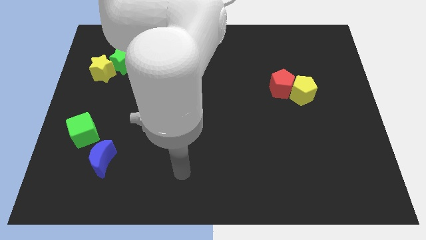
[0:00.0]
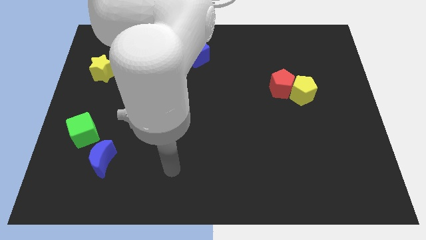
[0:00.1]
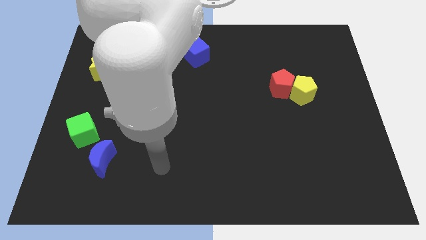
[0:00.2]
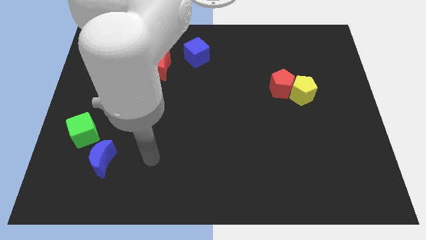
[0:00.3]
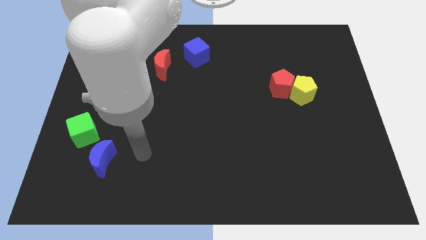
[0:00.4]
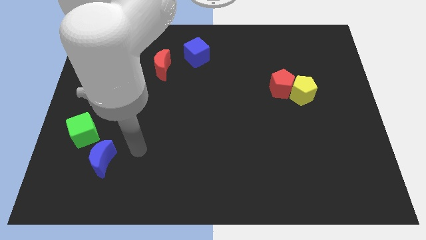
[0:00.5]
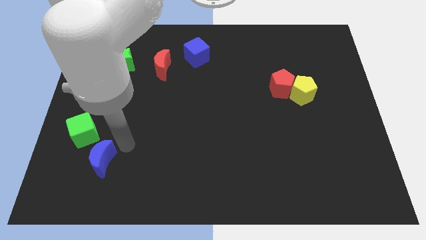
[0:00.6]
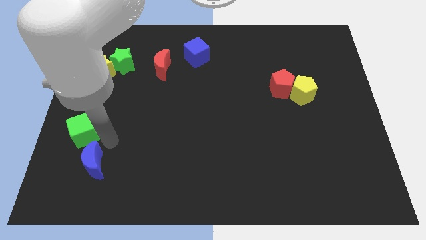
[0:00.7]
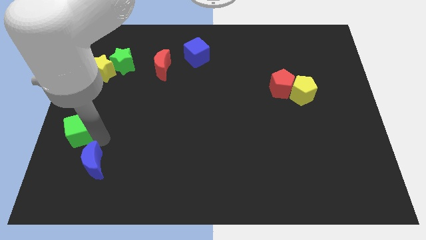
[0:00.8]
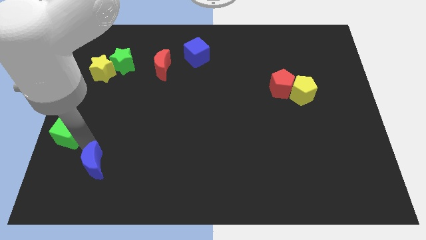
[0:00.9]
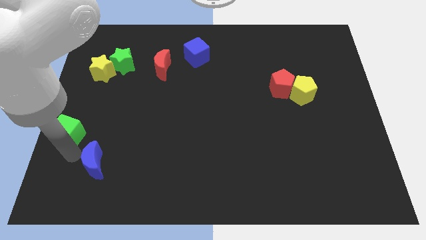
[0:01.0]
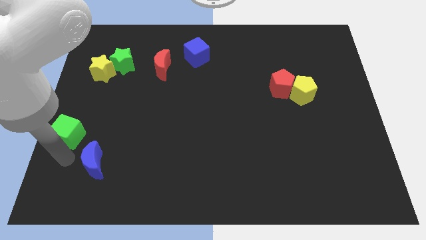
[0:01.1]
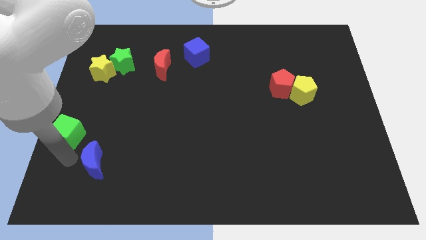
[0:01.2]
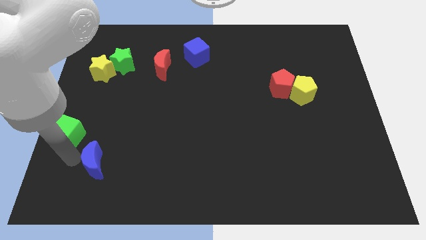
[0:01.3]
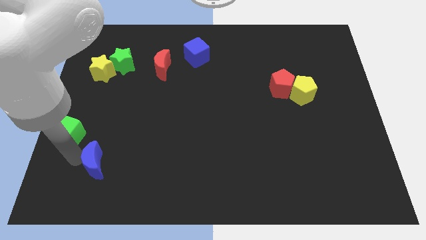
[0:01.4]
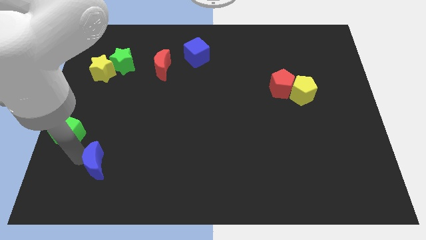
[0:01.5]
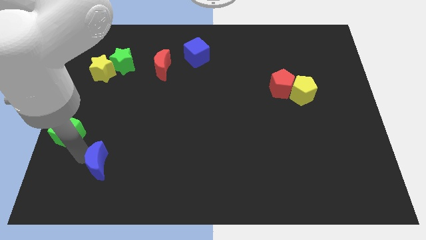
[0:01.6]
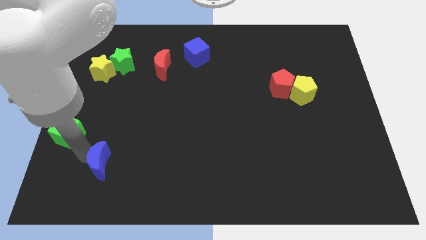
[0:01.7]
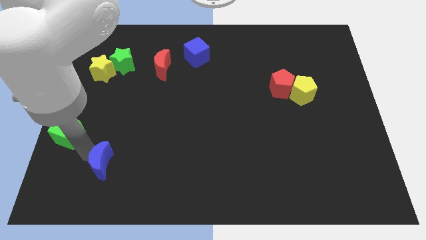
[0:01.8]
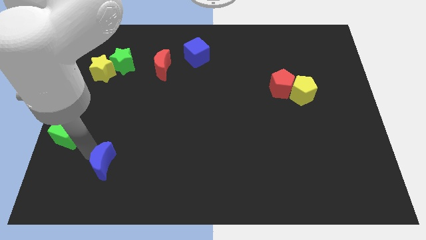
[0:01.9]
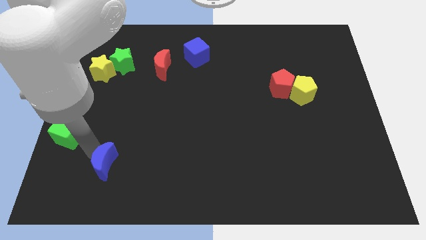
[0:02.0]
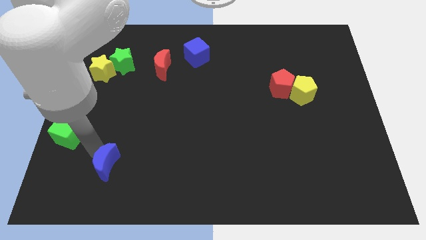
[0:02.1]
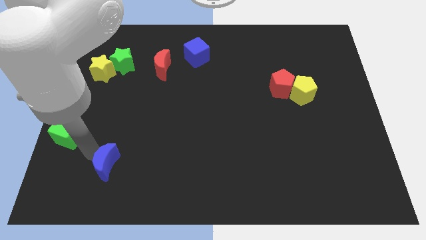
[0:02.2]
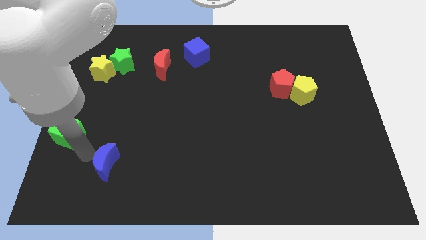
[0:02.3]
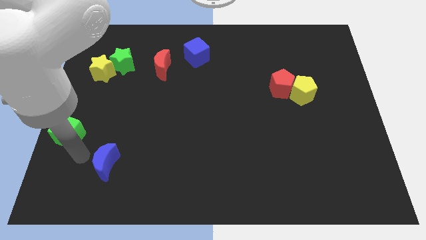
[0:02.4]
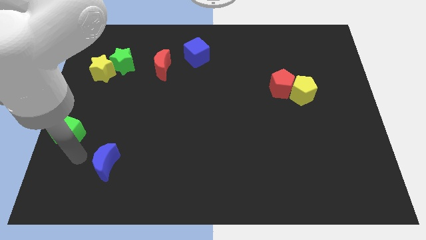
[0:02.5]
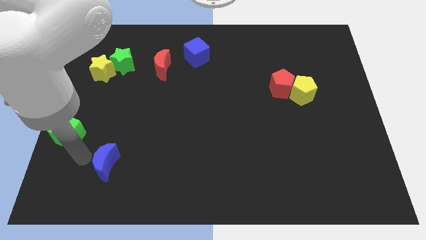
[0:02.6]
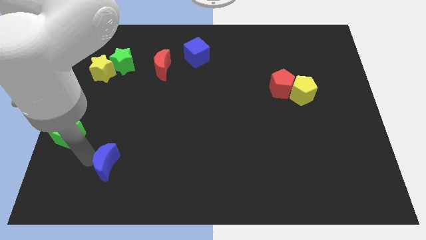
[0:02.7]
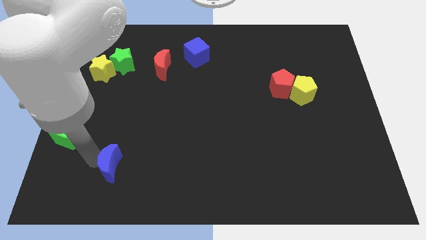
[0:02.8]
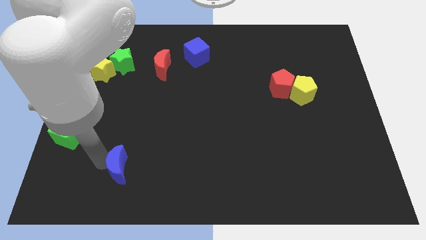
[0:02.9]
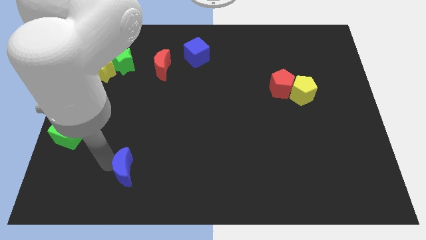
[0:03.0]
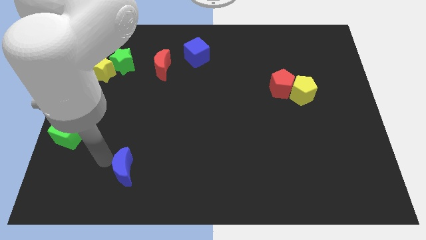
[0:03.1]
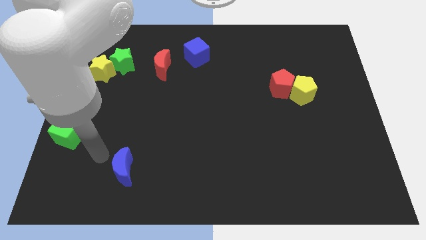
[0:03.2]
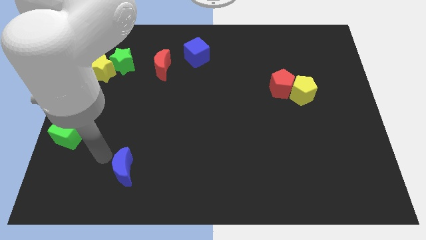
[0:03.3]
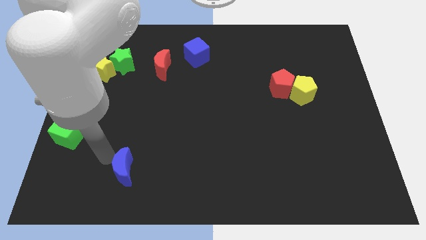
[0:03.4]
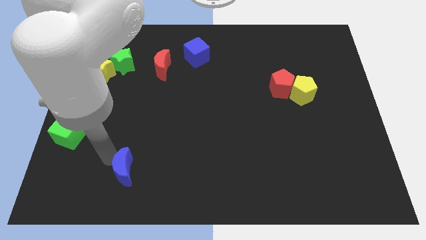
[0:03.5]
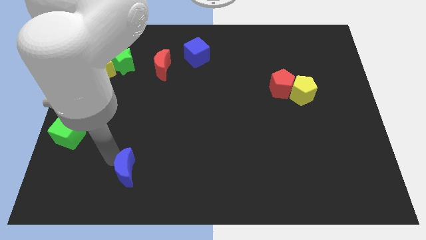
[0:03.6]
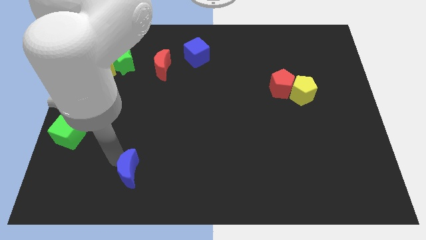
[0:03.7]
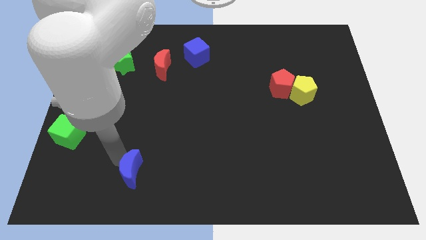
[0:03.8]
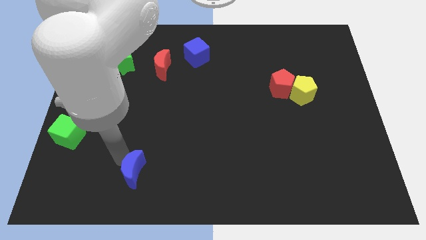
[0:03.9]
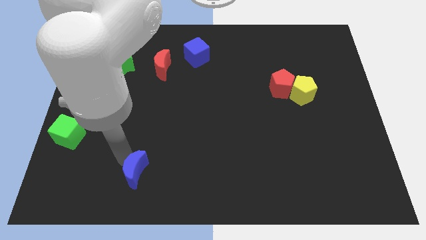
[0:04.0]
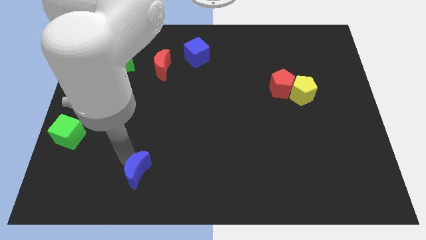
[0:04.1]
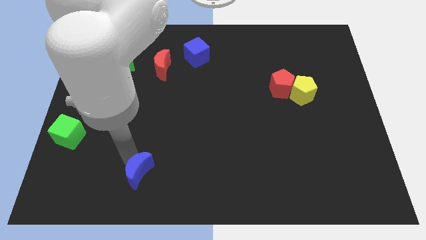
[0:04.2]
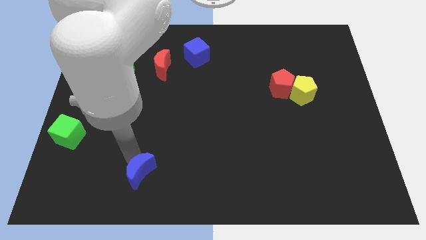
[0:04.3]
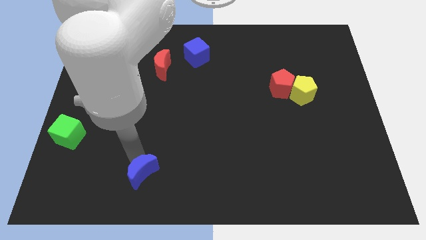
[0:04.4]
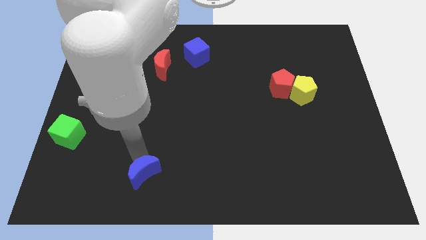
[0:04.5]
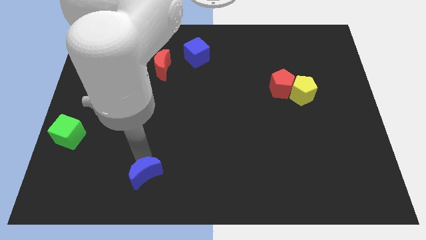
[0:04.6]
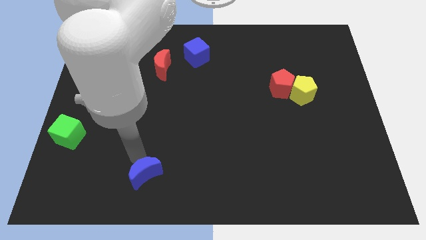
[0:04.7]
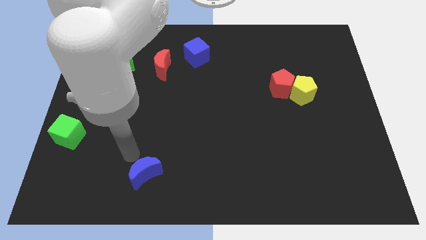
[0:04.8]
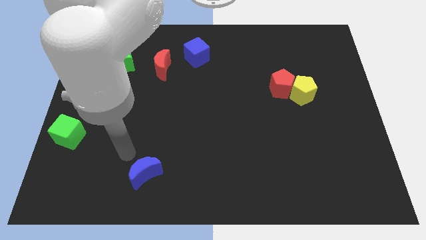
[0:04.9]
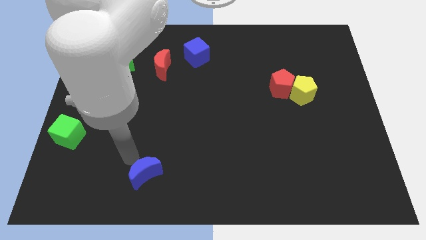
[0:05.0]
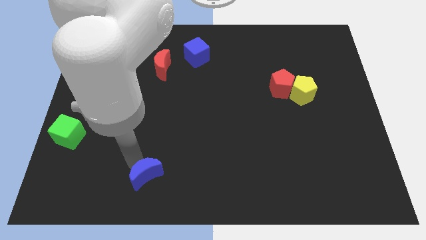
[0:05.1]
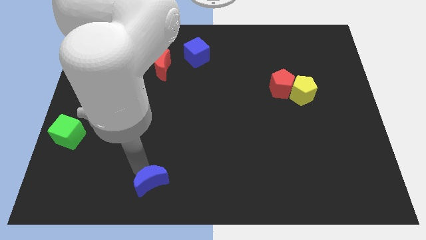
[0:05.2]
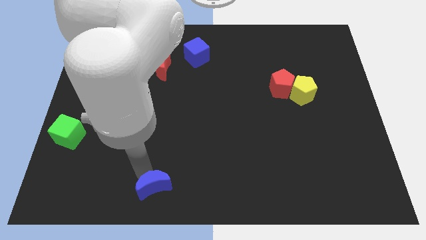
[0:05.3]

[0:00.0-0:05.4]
slide the blue moon to the bottom side

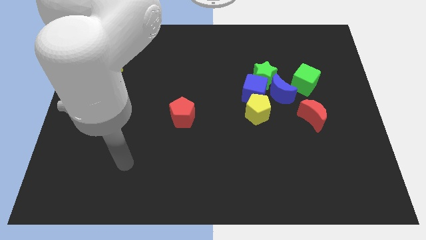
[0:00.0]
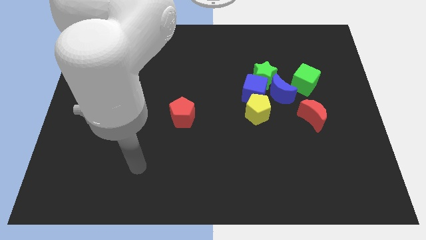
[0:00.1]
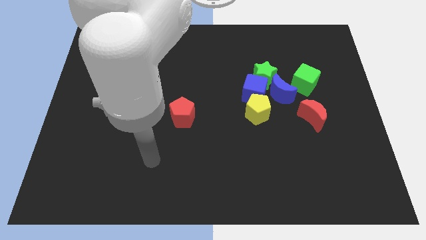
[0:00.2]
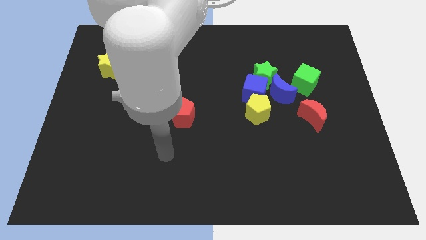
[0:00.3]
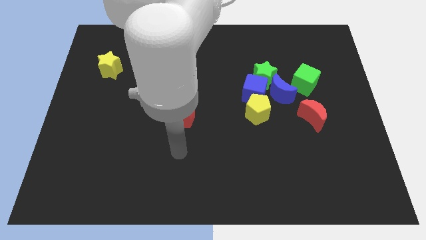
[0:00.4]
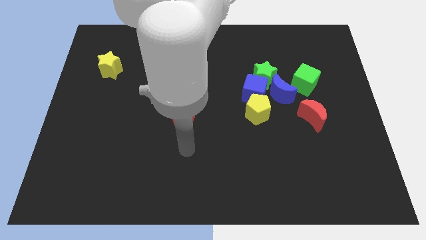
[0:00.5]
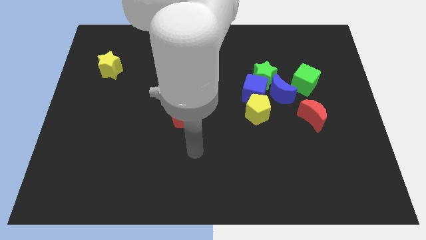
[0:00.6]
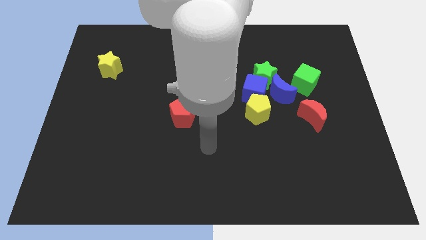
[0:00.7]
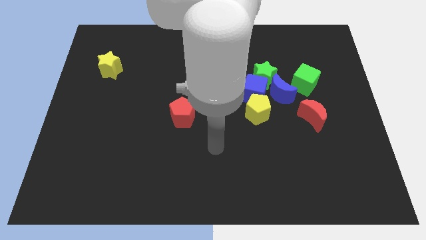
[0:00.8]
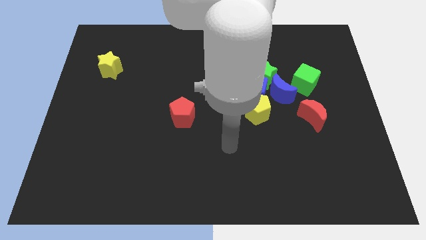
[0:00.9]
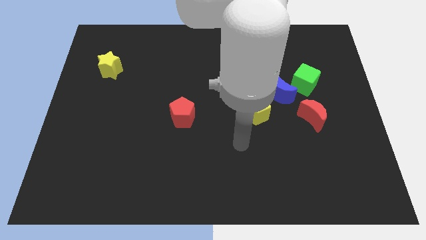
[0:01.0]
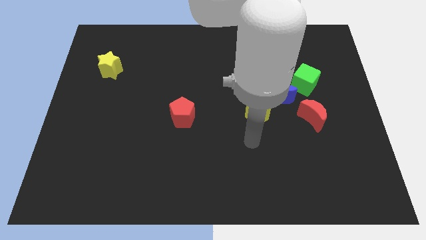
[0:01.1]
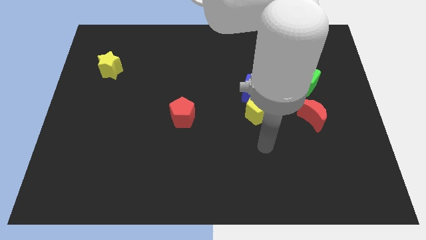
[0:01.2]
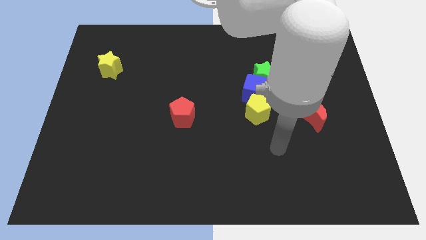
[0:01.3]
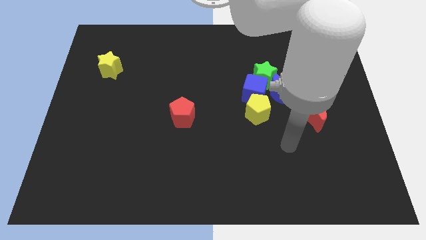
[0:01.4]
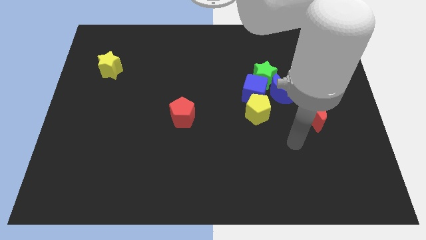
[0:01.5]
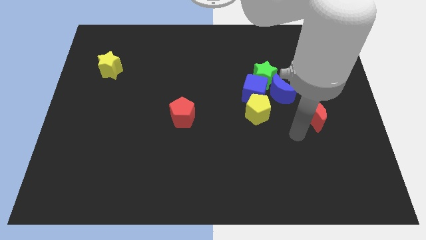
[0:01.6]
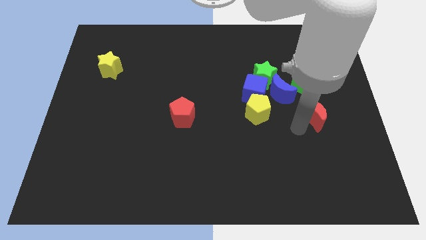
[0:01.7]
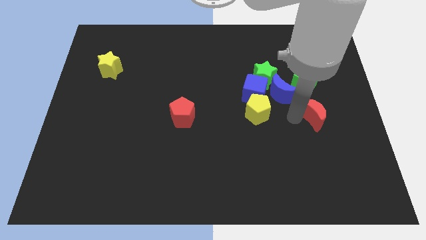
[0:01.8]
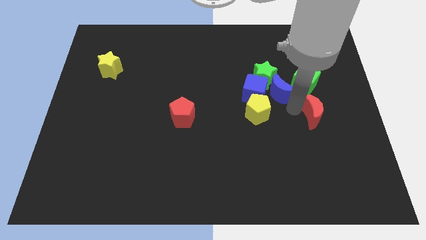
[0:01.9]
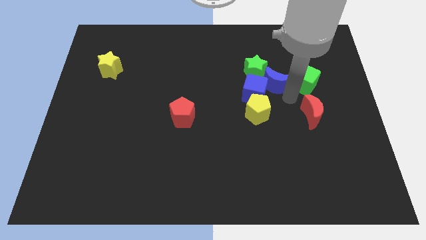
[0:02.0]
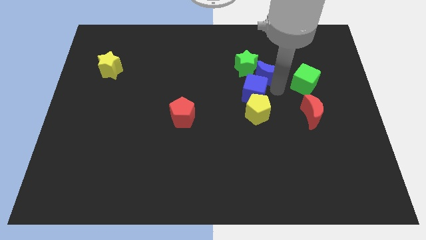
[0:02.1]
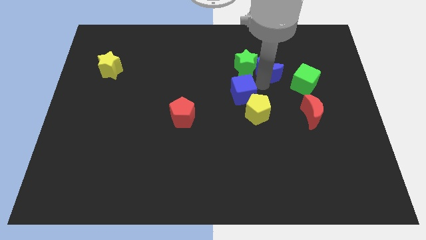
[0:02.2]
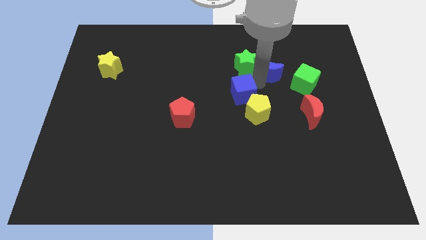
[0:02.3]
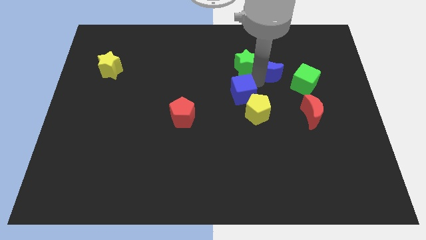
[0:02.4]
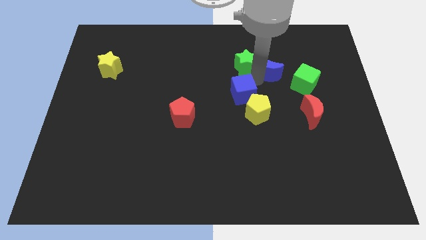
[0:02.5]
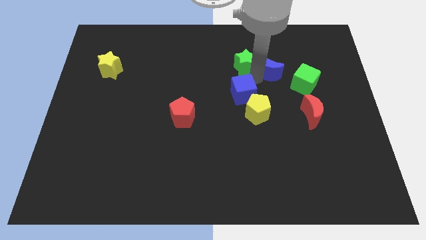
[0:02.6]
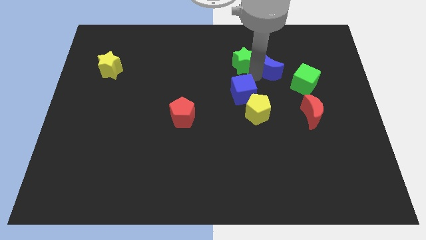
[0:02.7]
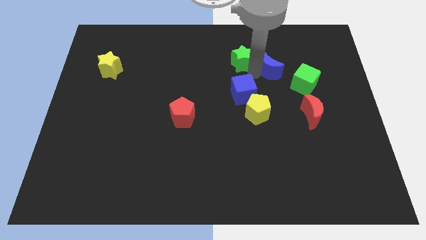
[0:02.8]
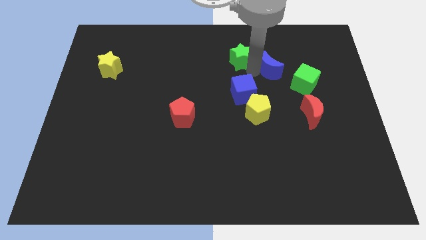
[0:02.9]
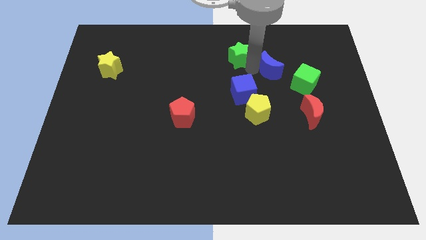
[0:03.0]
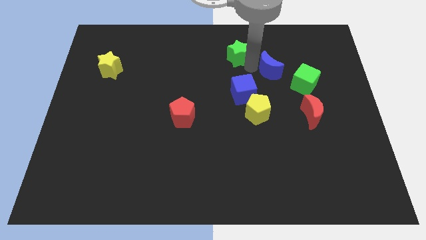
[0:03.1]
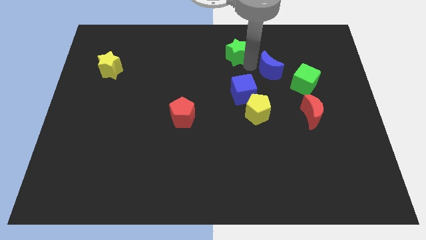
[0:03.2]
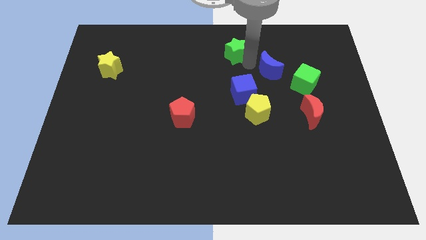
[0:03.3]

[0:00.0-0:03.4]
push the green star to the towards your base
